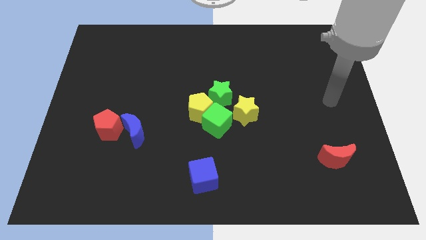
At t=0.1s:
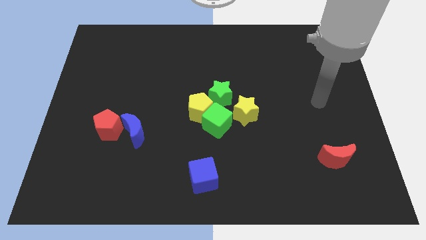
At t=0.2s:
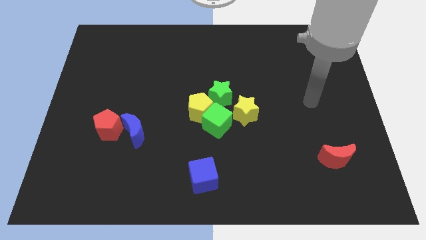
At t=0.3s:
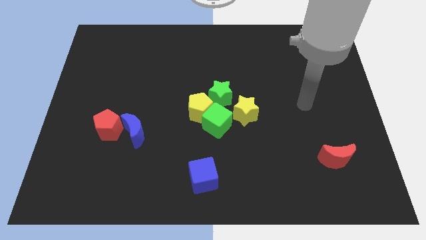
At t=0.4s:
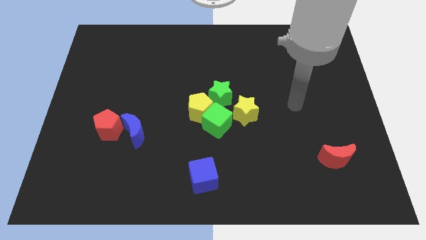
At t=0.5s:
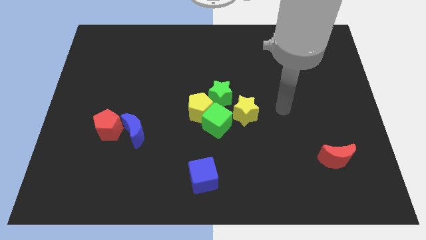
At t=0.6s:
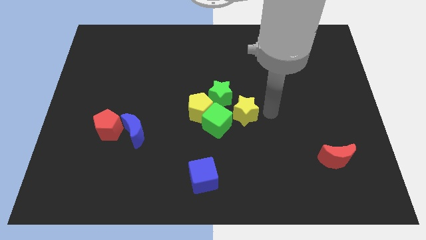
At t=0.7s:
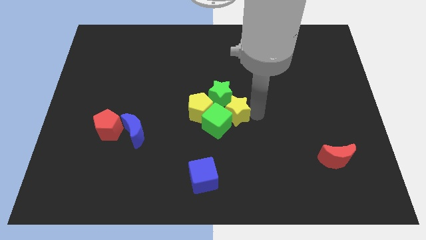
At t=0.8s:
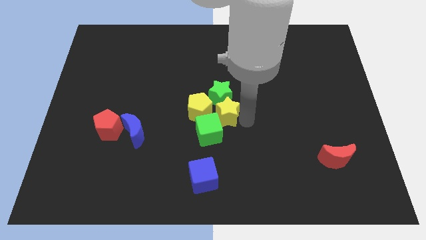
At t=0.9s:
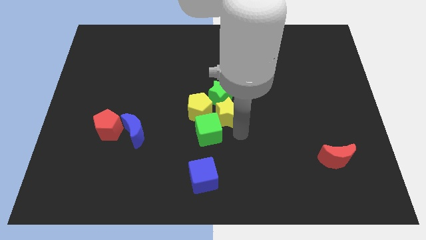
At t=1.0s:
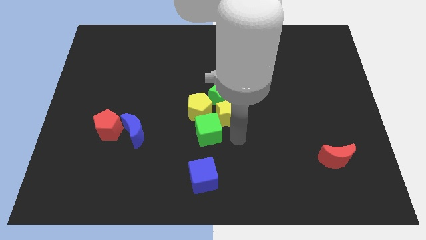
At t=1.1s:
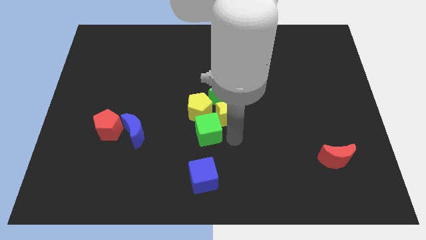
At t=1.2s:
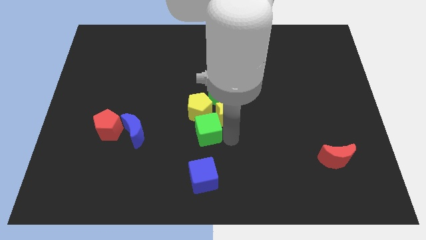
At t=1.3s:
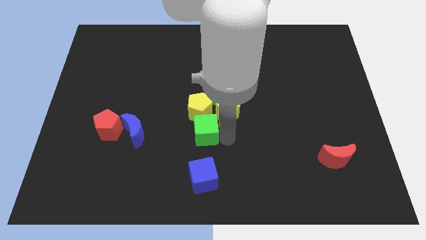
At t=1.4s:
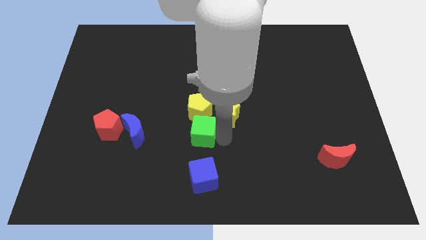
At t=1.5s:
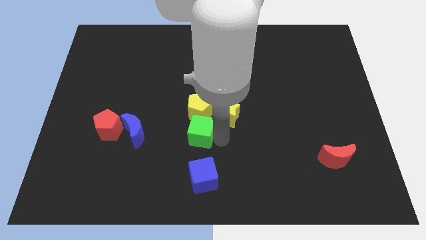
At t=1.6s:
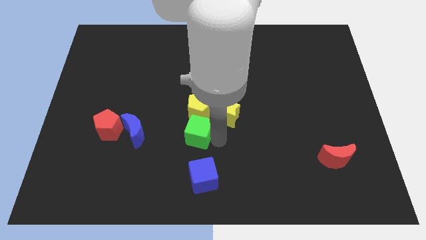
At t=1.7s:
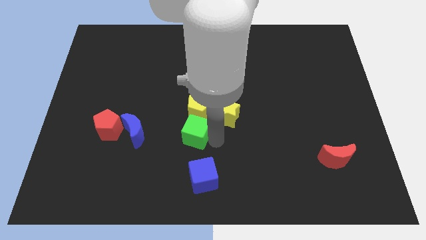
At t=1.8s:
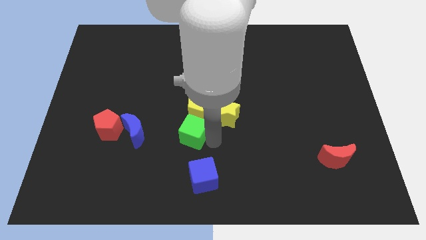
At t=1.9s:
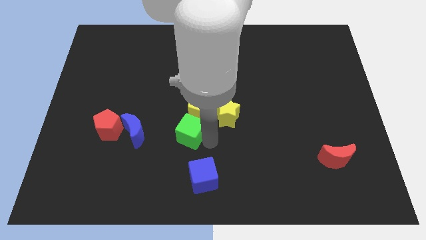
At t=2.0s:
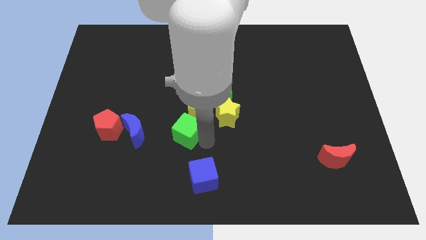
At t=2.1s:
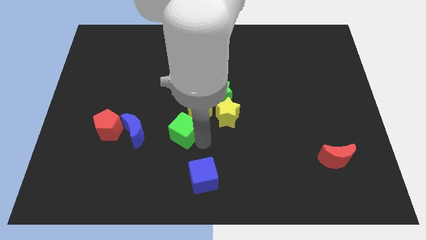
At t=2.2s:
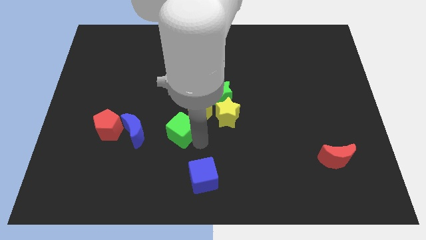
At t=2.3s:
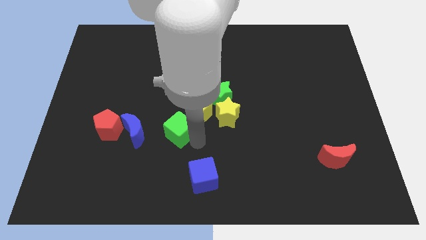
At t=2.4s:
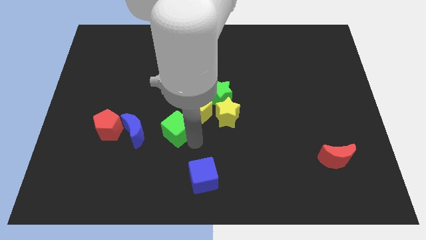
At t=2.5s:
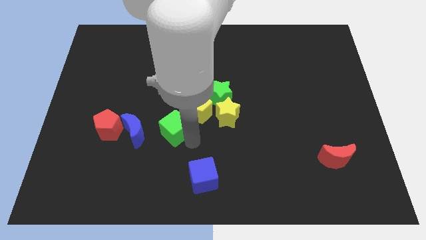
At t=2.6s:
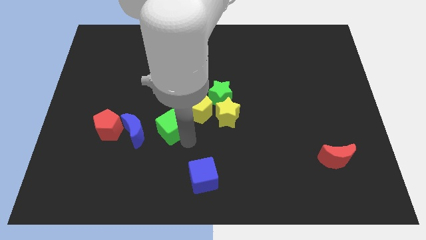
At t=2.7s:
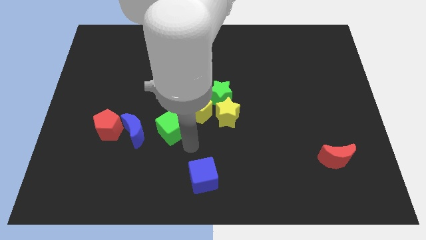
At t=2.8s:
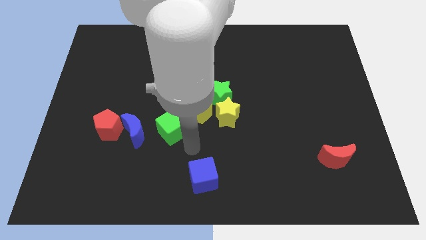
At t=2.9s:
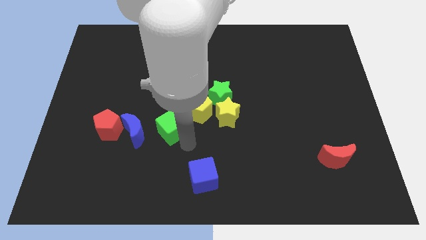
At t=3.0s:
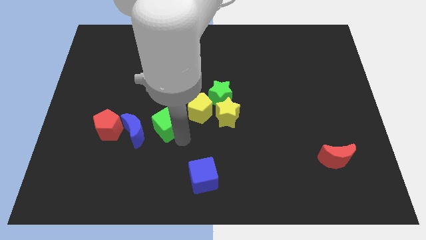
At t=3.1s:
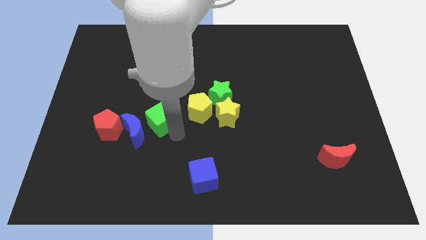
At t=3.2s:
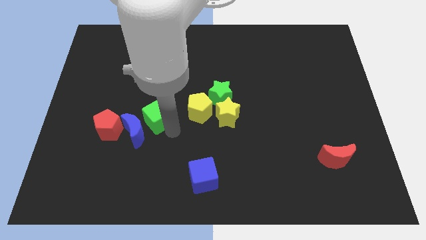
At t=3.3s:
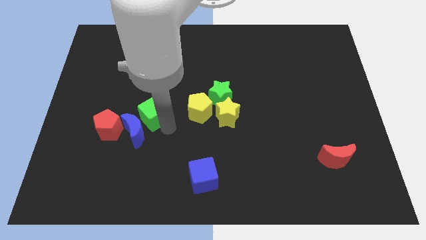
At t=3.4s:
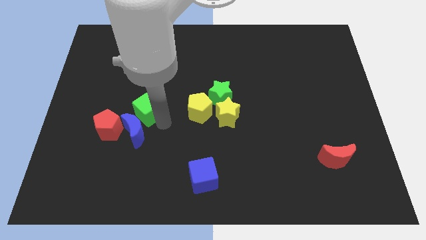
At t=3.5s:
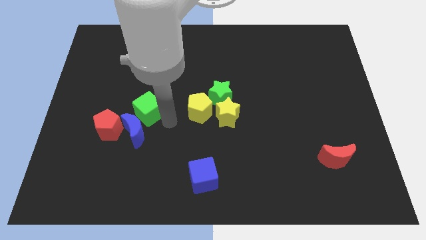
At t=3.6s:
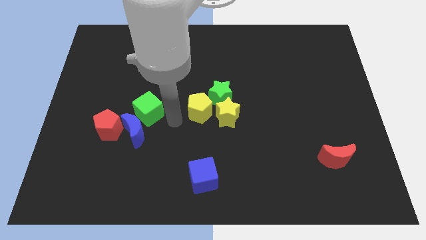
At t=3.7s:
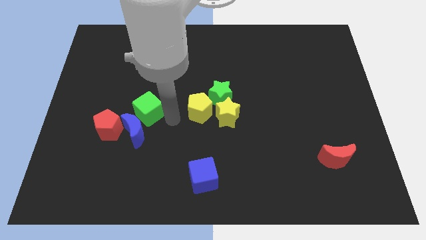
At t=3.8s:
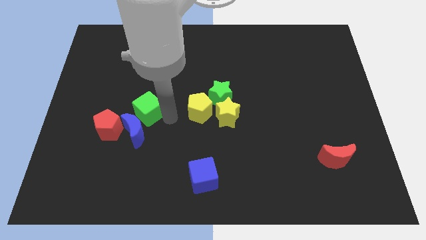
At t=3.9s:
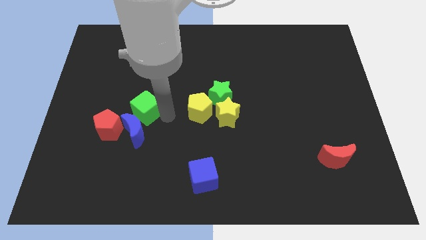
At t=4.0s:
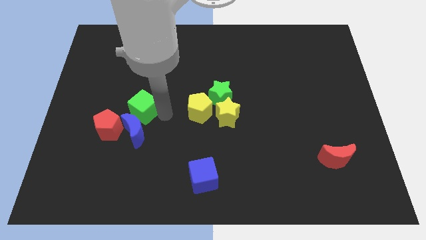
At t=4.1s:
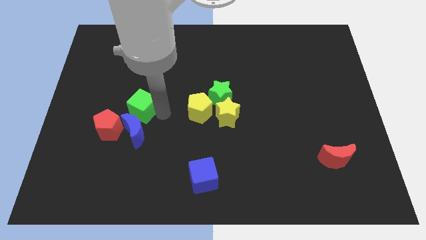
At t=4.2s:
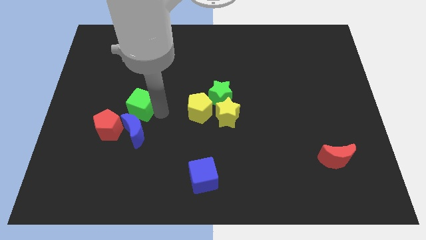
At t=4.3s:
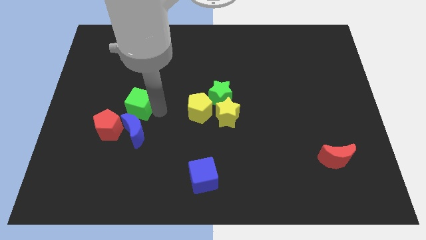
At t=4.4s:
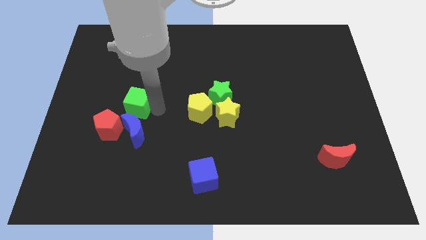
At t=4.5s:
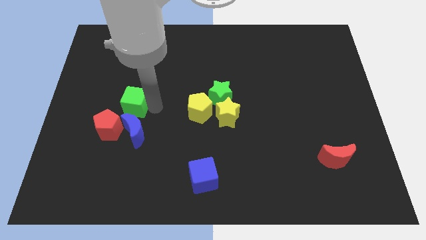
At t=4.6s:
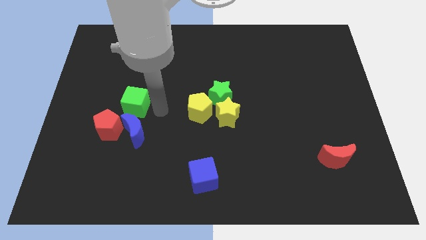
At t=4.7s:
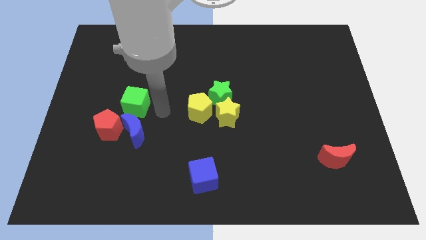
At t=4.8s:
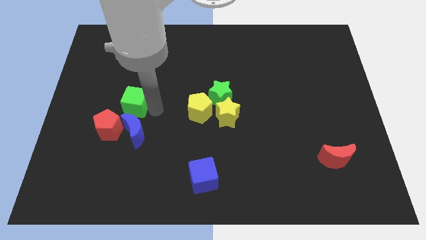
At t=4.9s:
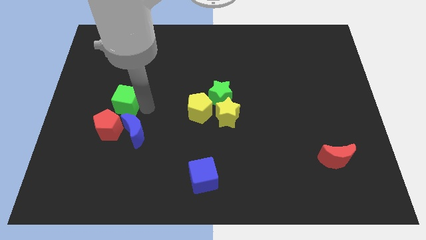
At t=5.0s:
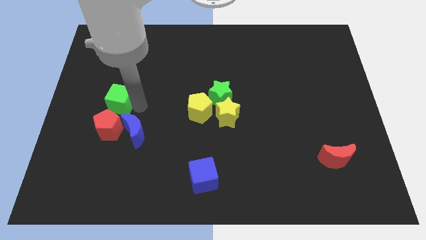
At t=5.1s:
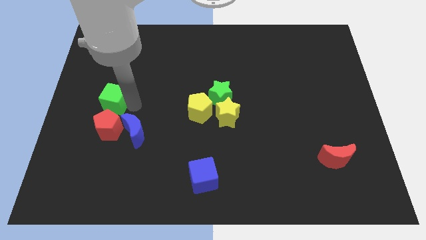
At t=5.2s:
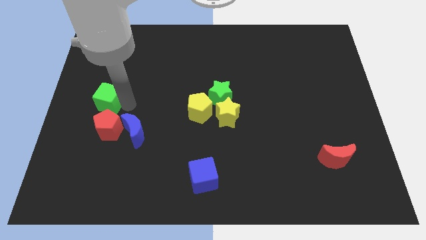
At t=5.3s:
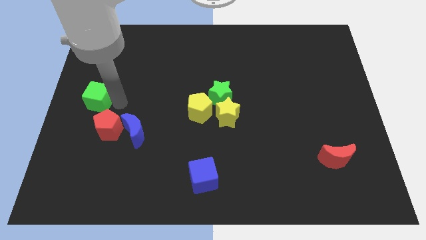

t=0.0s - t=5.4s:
put the green cube to the left side

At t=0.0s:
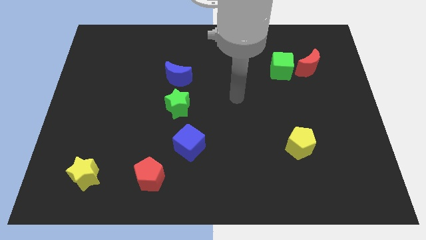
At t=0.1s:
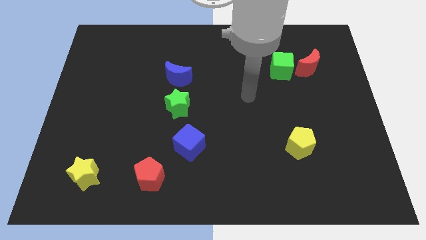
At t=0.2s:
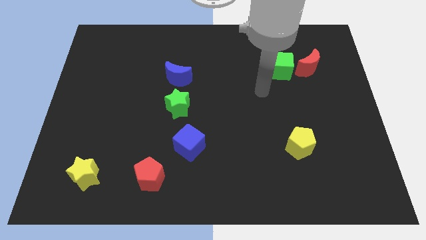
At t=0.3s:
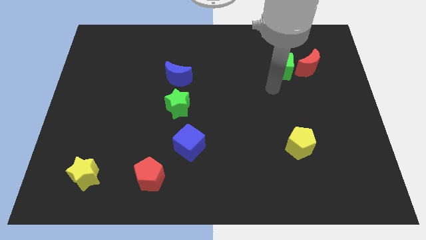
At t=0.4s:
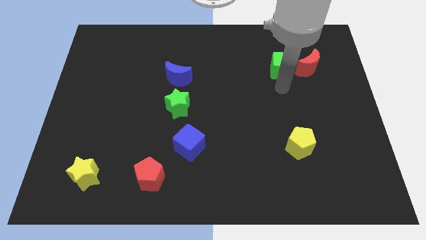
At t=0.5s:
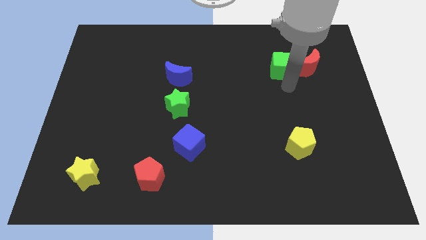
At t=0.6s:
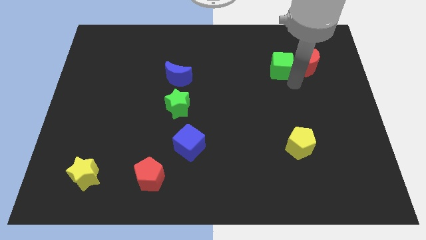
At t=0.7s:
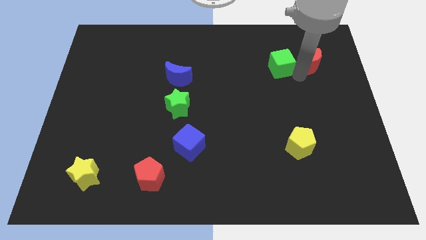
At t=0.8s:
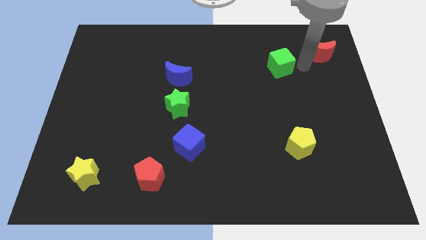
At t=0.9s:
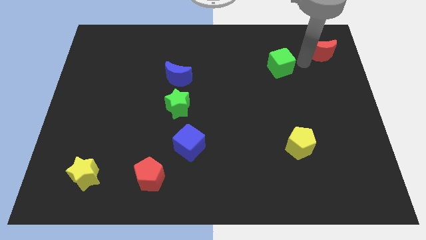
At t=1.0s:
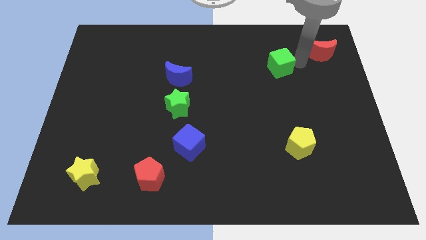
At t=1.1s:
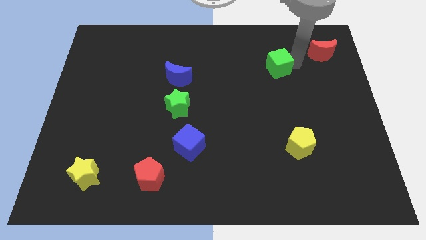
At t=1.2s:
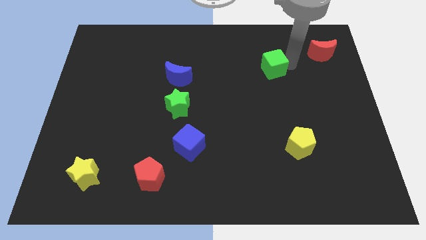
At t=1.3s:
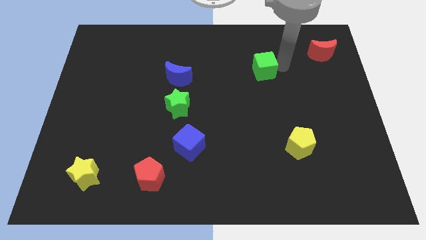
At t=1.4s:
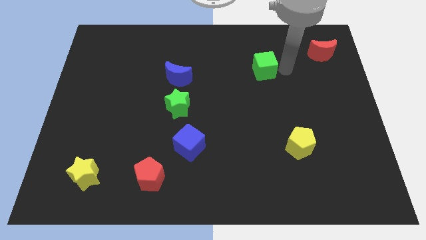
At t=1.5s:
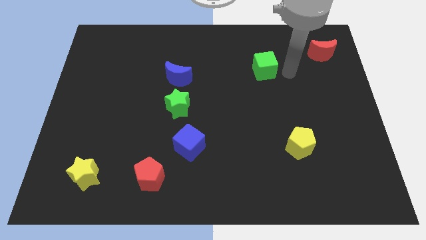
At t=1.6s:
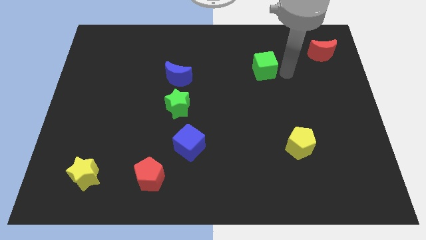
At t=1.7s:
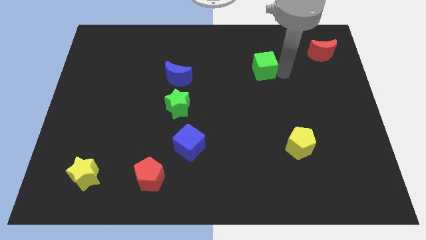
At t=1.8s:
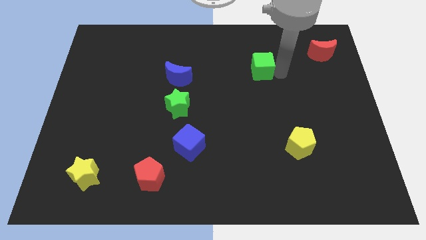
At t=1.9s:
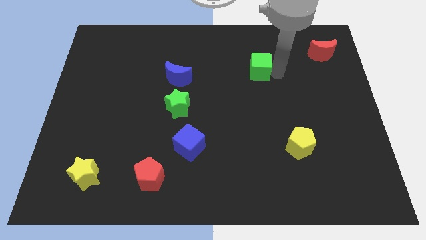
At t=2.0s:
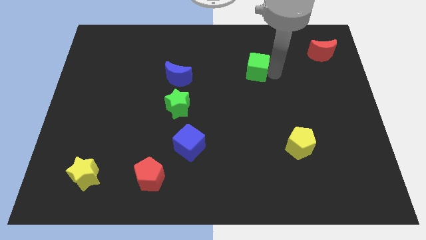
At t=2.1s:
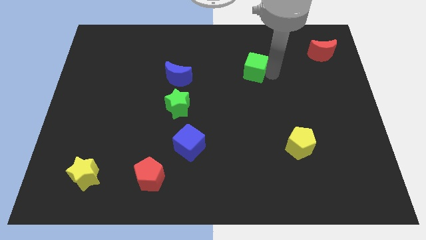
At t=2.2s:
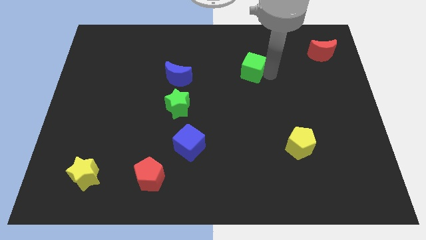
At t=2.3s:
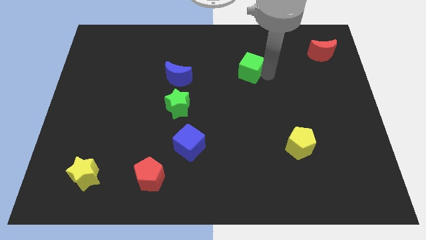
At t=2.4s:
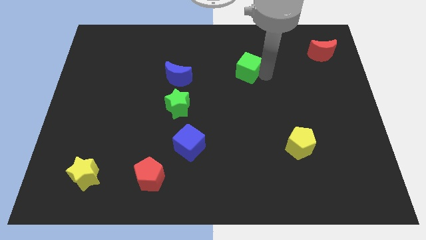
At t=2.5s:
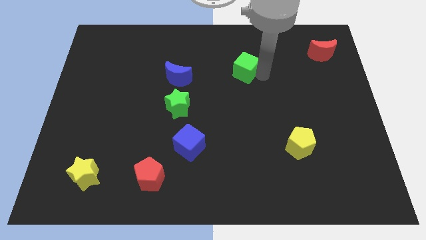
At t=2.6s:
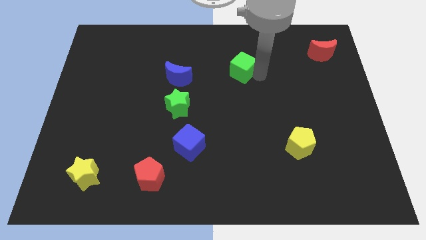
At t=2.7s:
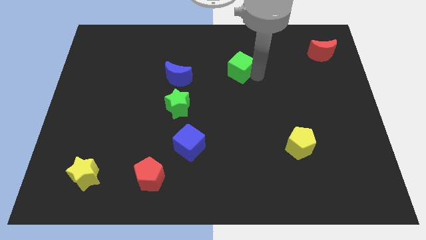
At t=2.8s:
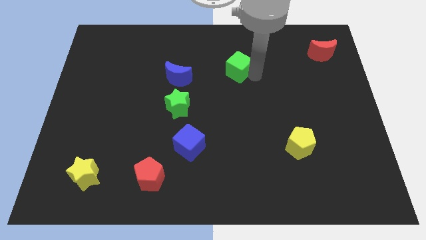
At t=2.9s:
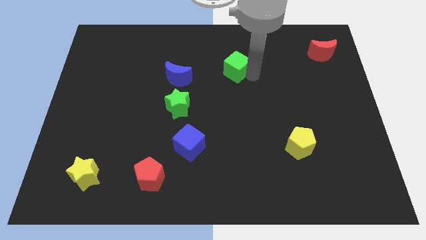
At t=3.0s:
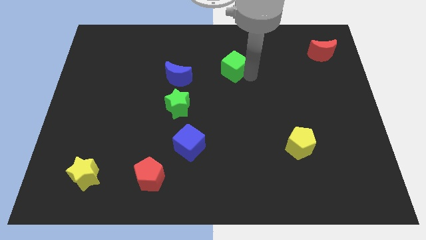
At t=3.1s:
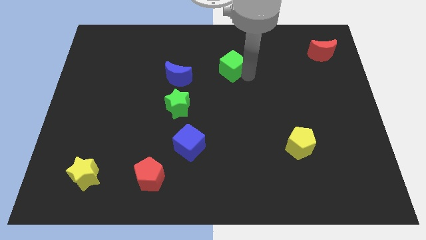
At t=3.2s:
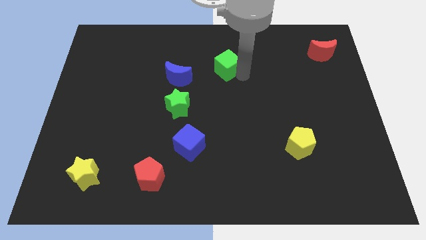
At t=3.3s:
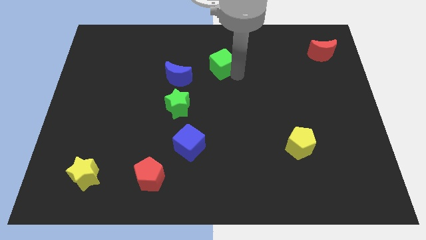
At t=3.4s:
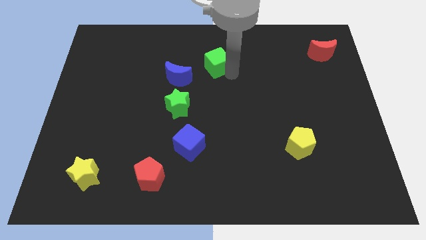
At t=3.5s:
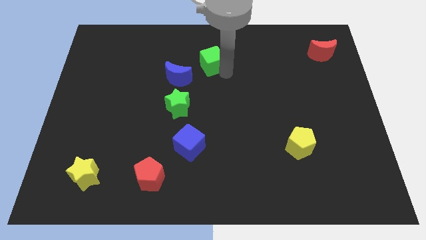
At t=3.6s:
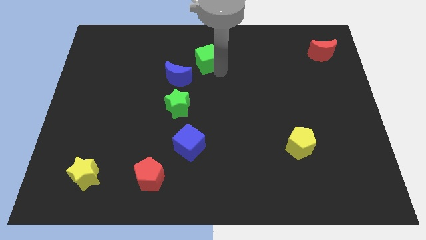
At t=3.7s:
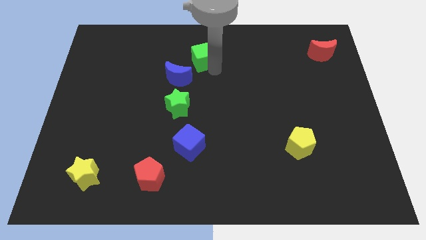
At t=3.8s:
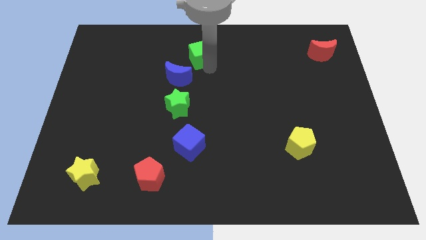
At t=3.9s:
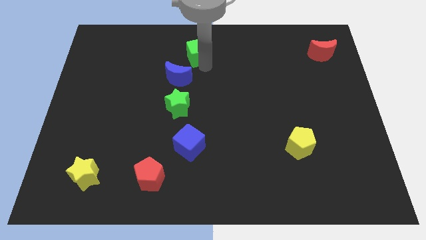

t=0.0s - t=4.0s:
push the green cube to the towards your base
